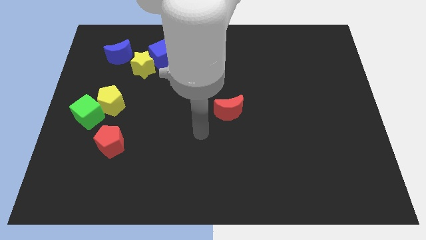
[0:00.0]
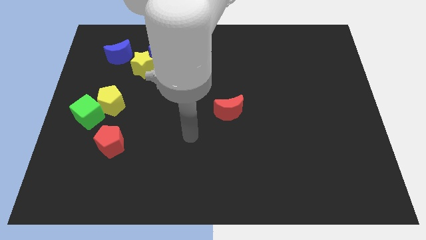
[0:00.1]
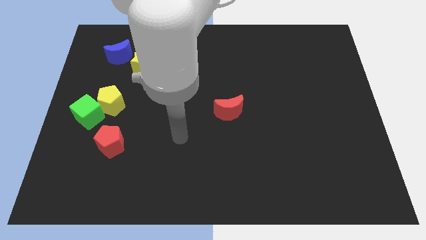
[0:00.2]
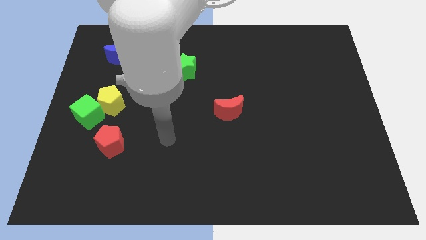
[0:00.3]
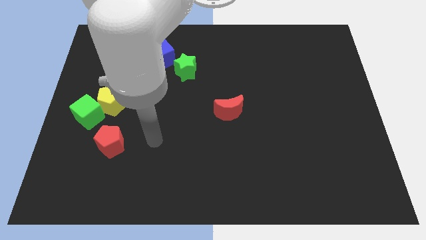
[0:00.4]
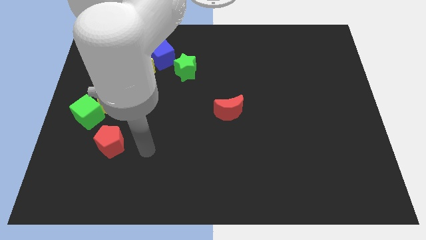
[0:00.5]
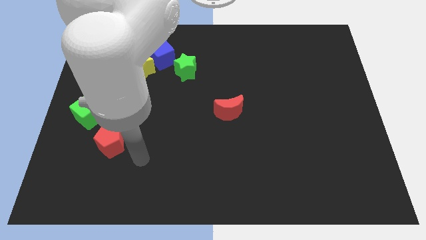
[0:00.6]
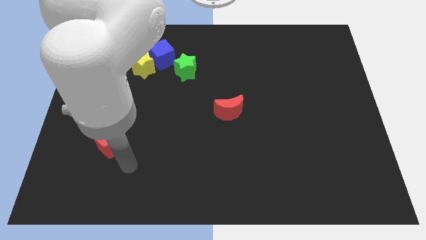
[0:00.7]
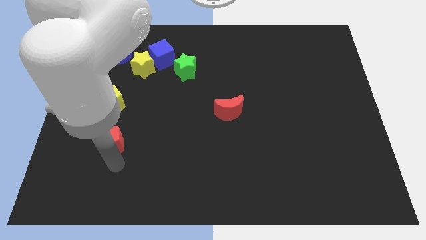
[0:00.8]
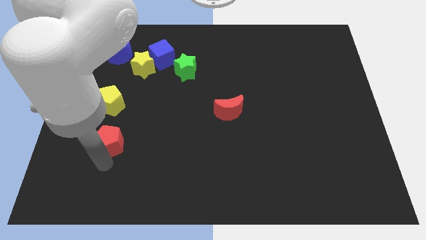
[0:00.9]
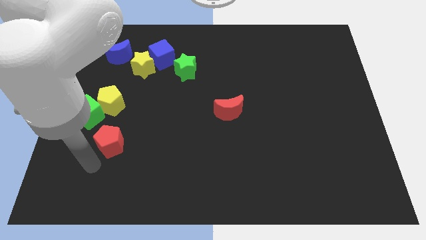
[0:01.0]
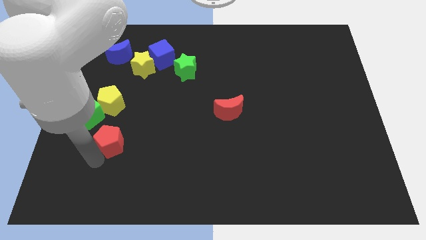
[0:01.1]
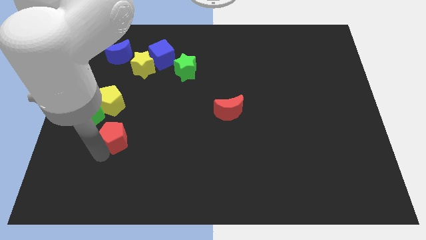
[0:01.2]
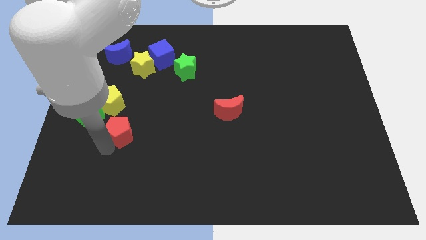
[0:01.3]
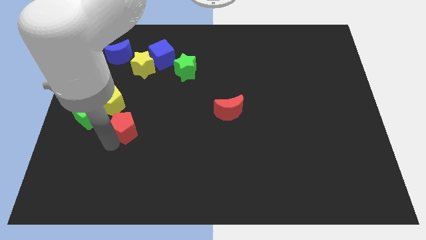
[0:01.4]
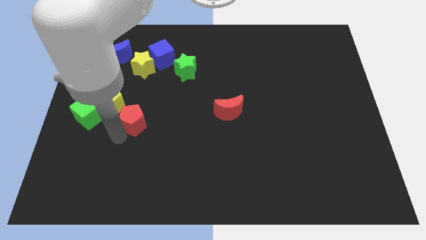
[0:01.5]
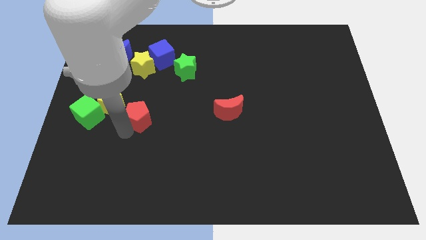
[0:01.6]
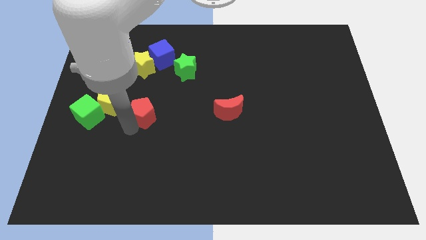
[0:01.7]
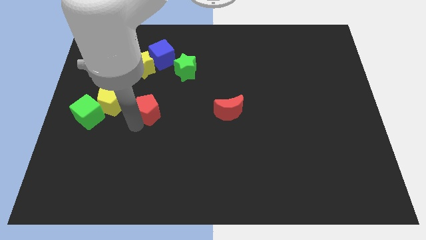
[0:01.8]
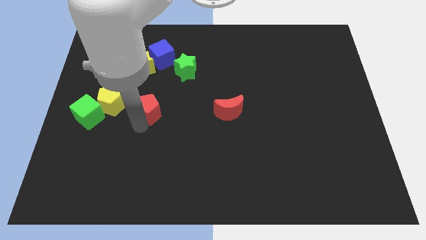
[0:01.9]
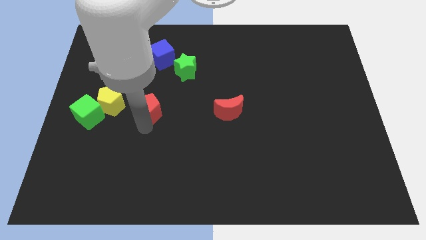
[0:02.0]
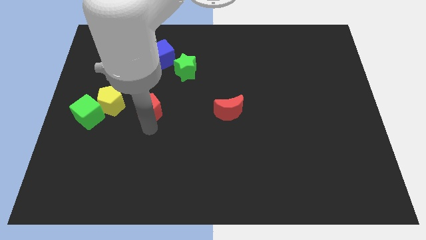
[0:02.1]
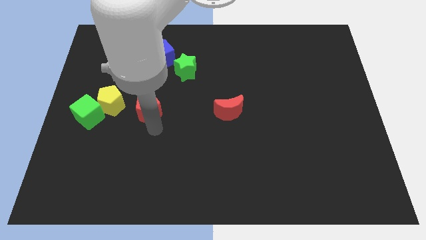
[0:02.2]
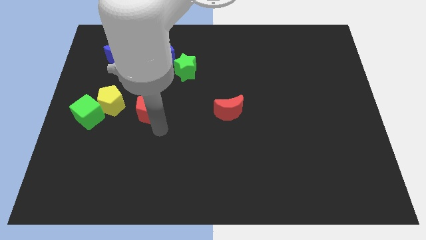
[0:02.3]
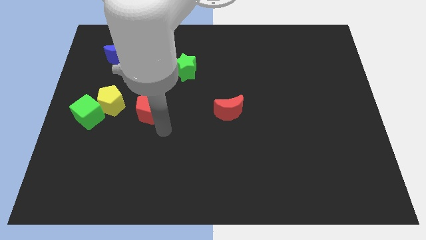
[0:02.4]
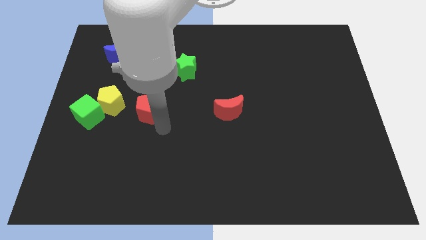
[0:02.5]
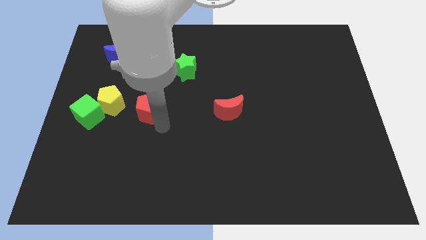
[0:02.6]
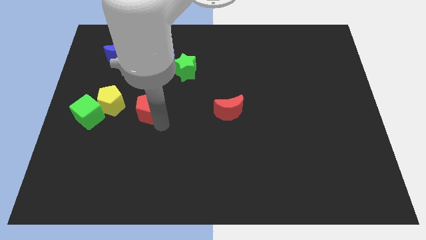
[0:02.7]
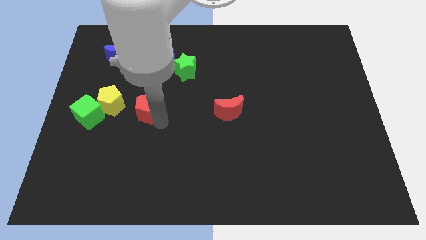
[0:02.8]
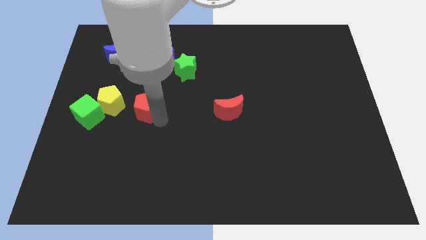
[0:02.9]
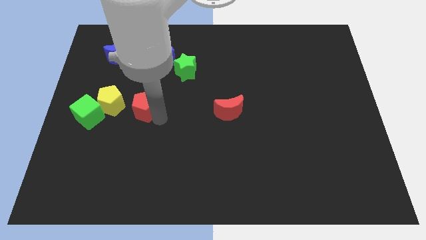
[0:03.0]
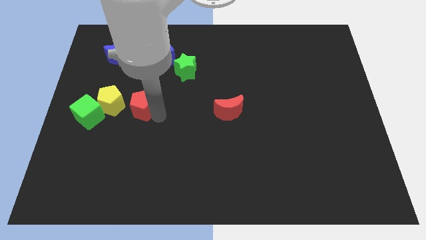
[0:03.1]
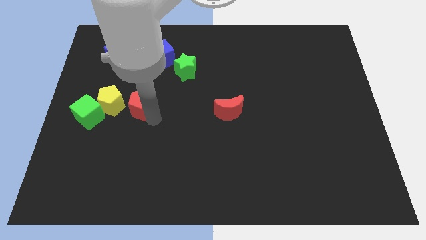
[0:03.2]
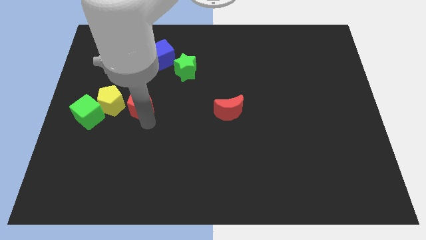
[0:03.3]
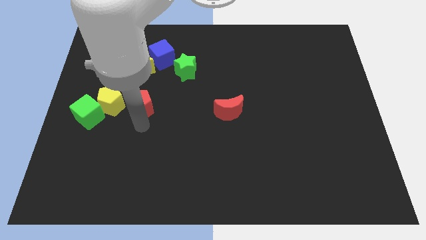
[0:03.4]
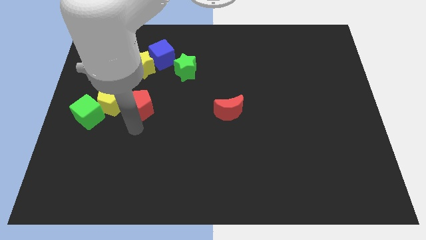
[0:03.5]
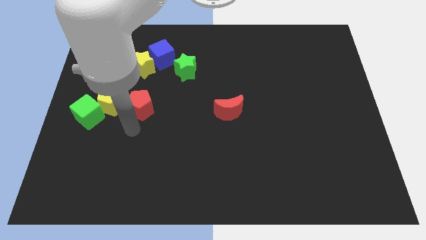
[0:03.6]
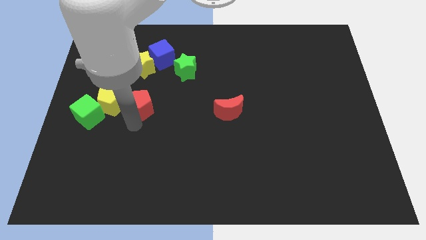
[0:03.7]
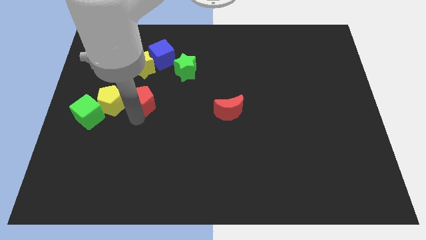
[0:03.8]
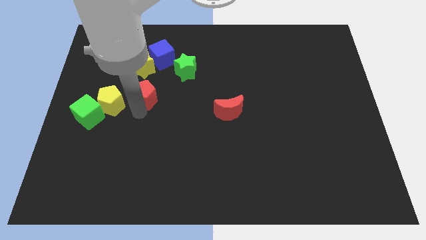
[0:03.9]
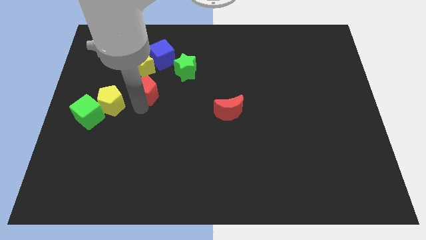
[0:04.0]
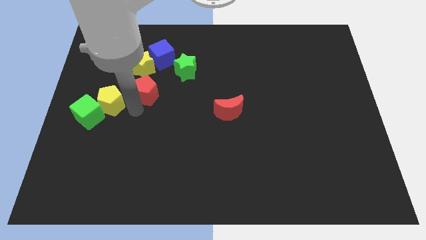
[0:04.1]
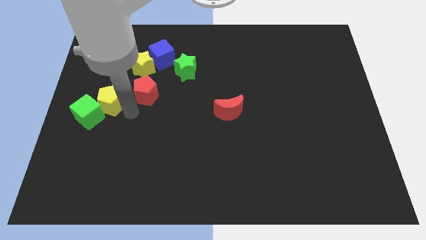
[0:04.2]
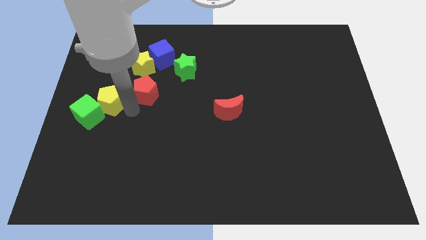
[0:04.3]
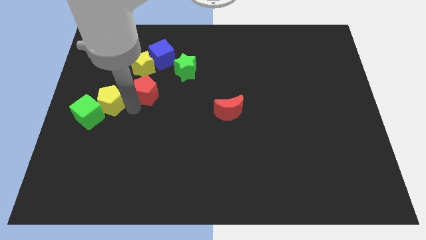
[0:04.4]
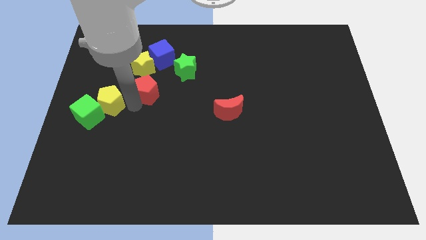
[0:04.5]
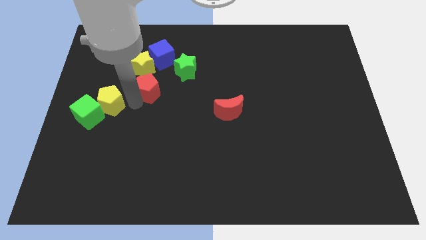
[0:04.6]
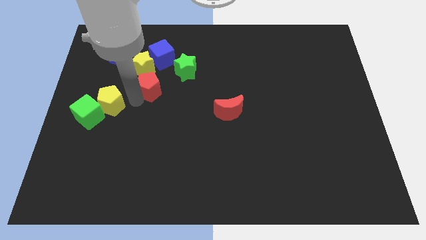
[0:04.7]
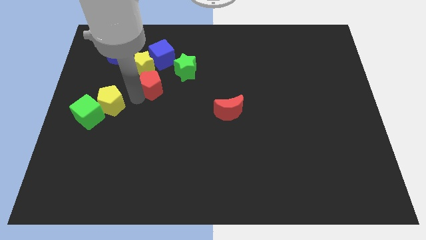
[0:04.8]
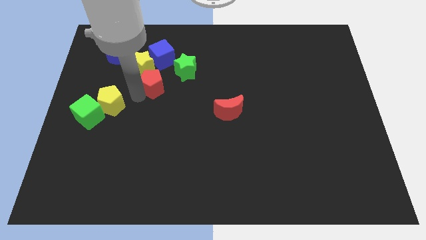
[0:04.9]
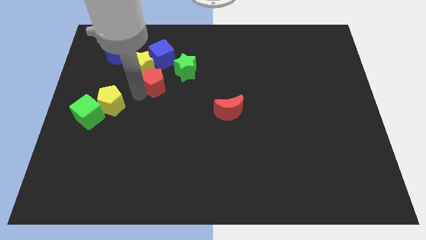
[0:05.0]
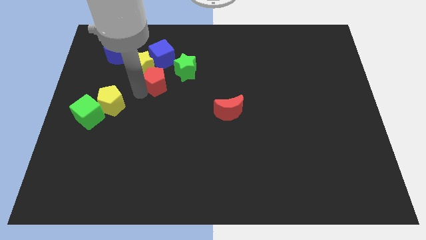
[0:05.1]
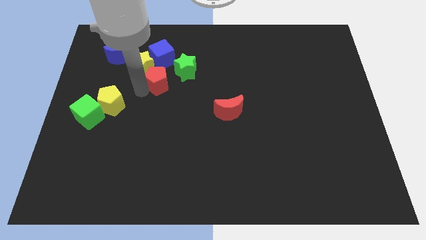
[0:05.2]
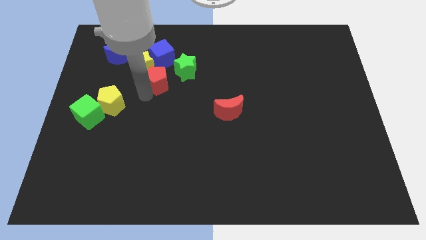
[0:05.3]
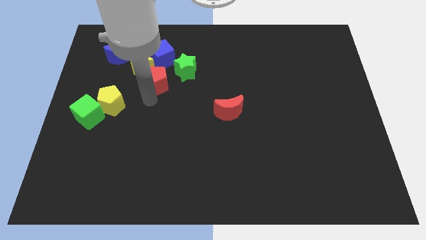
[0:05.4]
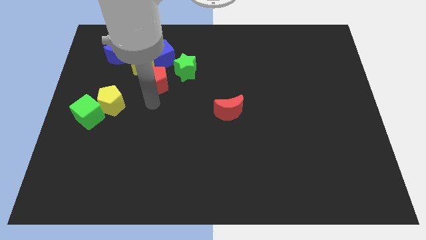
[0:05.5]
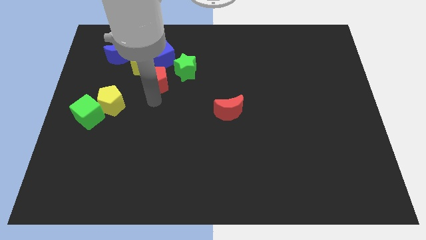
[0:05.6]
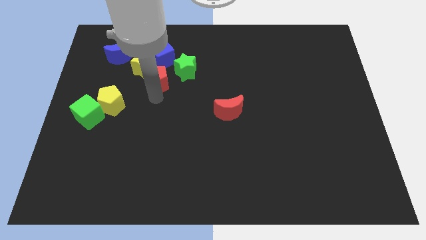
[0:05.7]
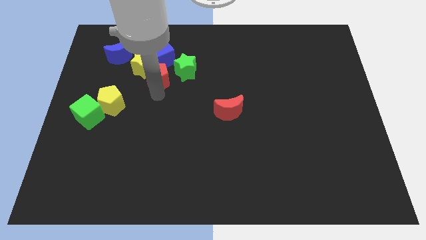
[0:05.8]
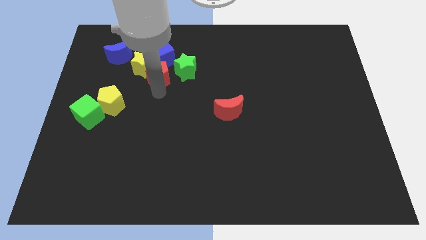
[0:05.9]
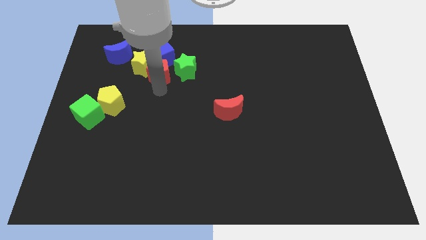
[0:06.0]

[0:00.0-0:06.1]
slide the red pentagon close to the blue cube

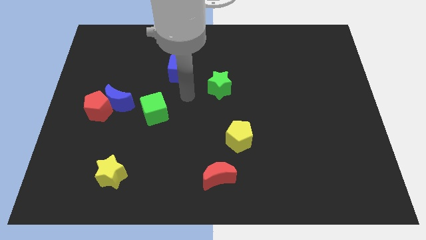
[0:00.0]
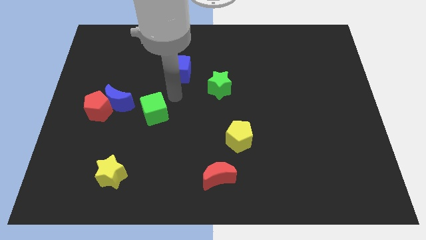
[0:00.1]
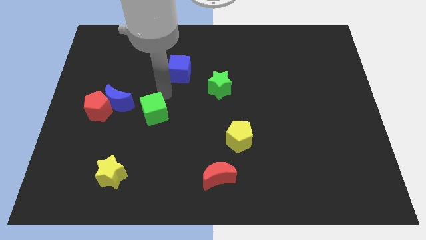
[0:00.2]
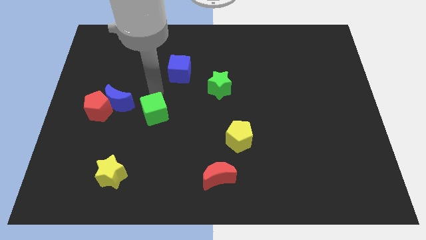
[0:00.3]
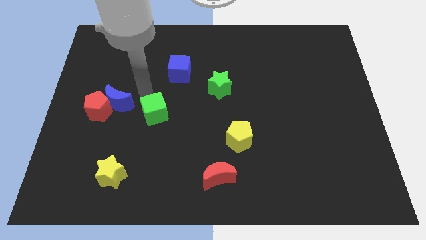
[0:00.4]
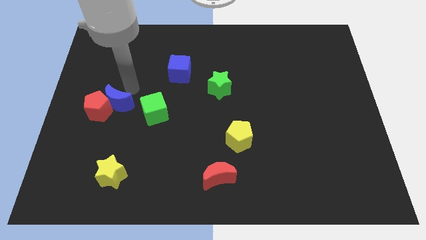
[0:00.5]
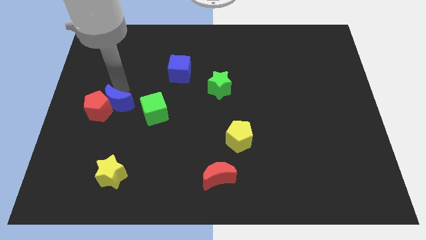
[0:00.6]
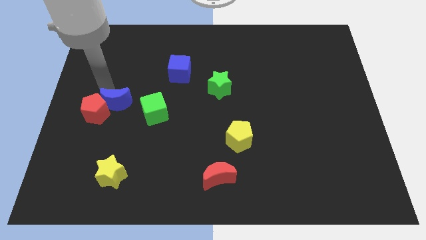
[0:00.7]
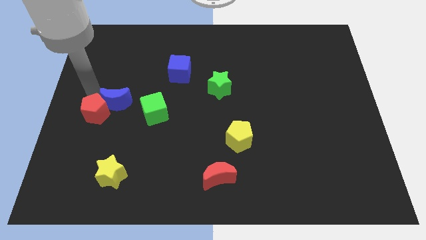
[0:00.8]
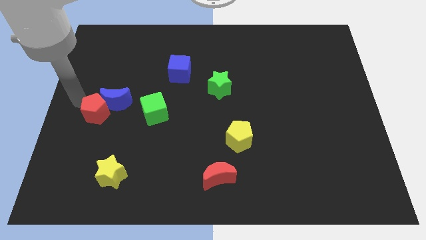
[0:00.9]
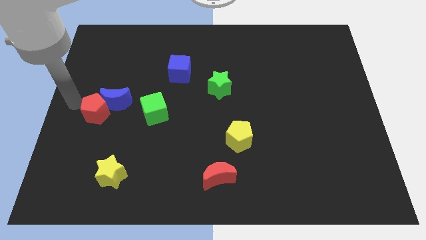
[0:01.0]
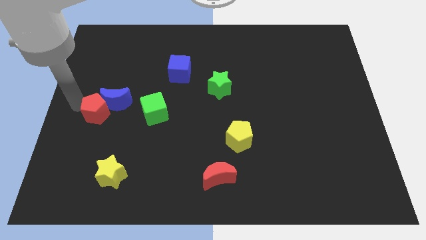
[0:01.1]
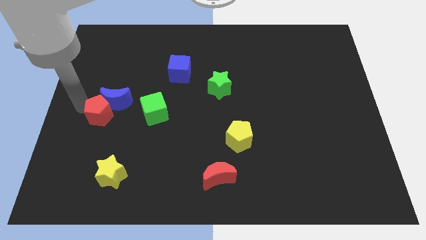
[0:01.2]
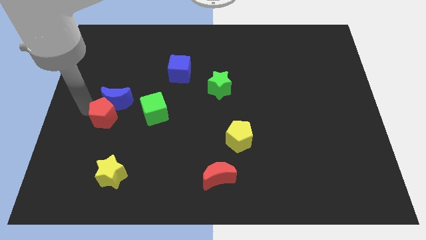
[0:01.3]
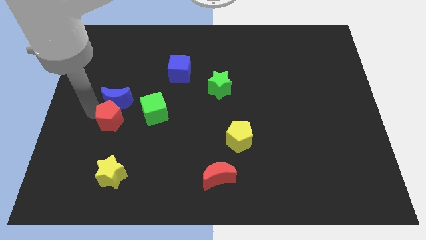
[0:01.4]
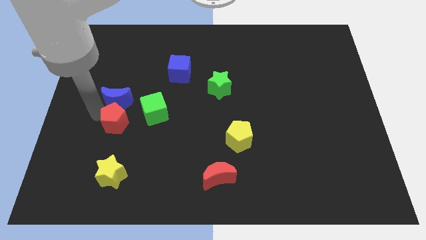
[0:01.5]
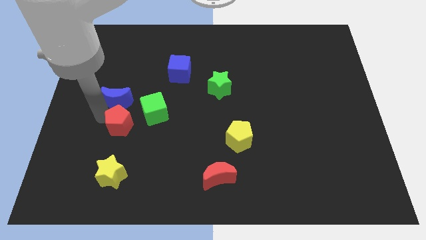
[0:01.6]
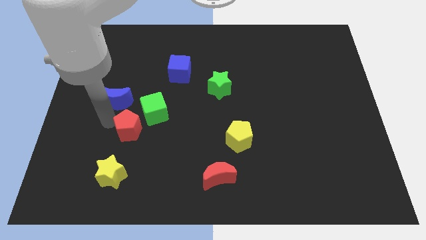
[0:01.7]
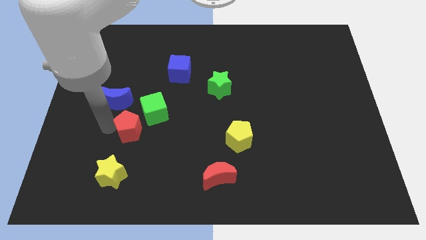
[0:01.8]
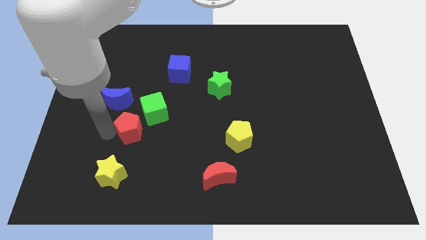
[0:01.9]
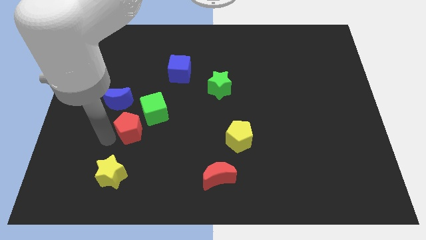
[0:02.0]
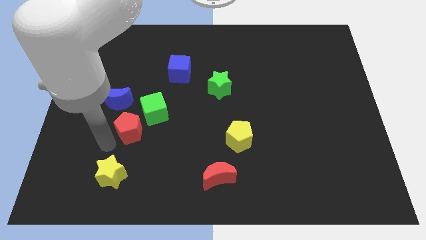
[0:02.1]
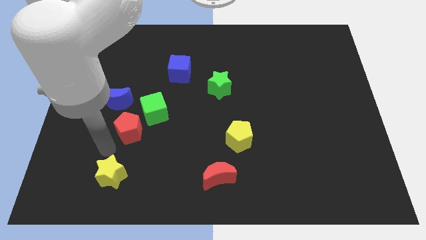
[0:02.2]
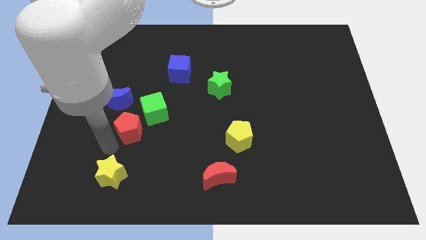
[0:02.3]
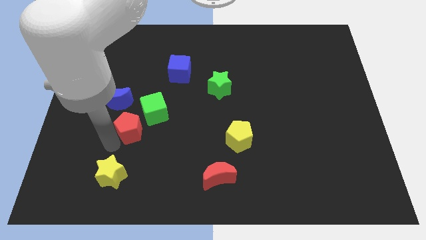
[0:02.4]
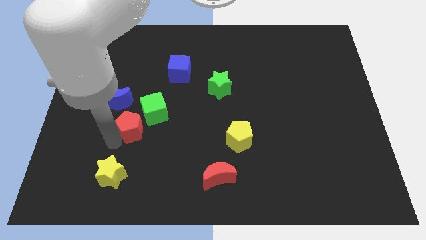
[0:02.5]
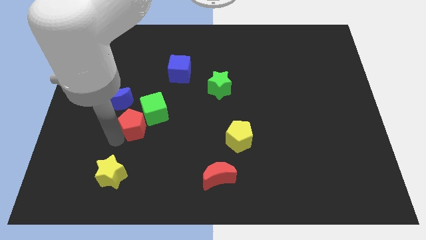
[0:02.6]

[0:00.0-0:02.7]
move the red pentagon close to the green cube
